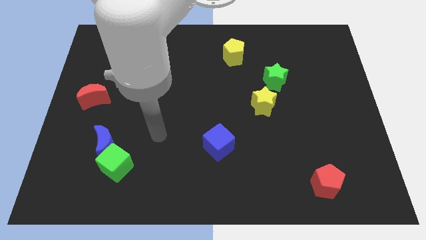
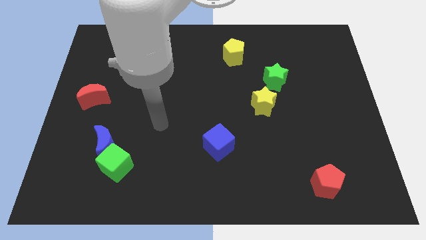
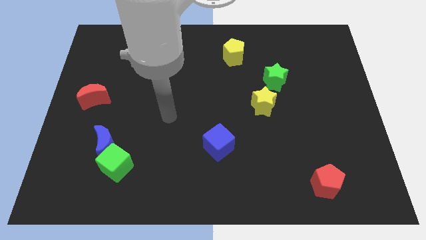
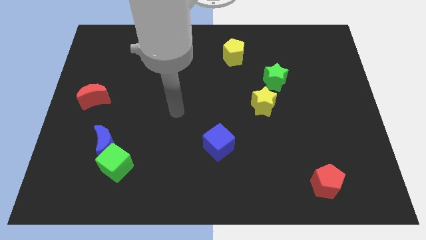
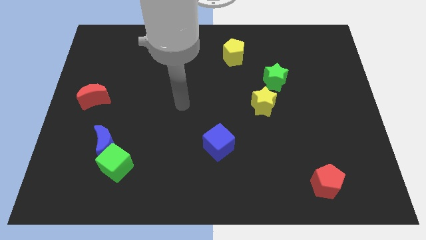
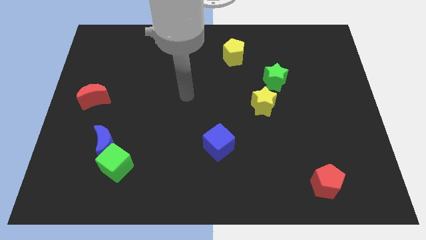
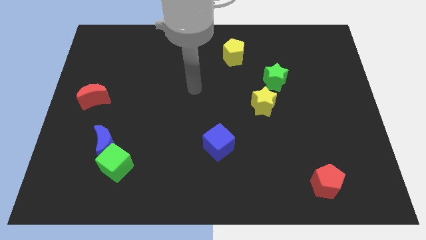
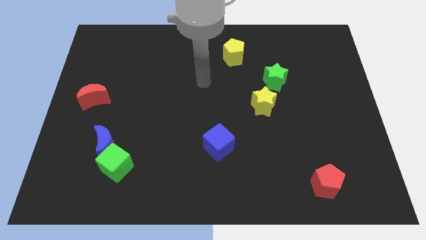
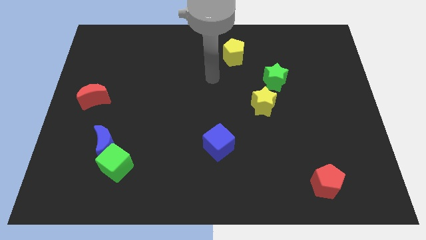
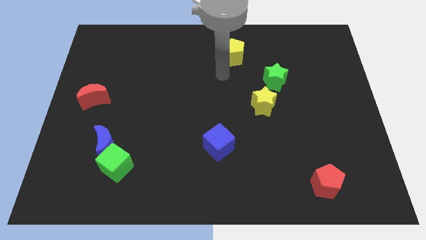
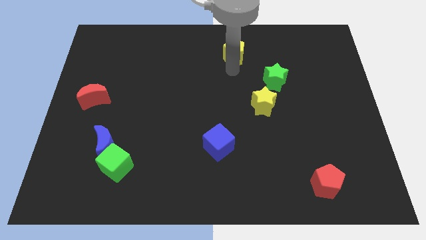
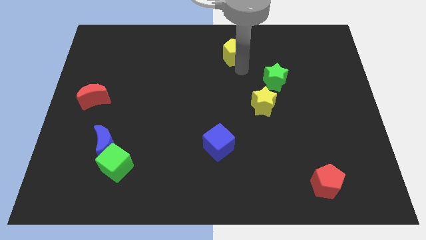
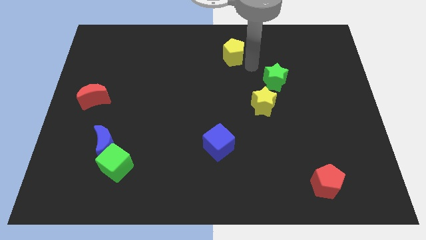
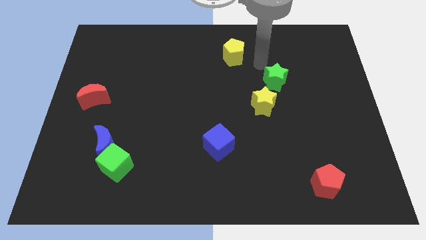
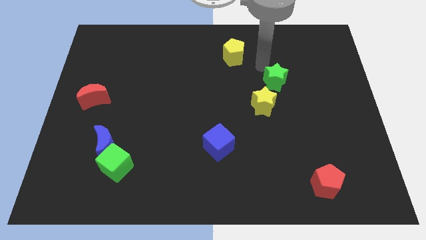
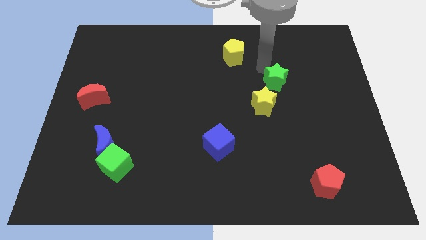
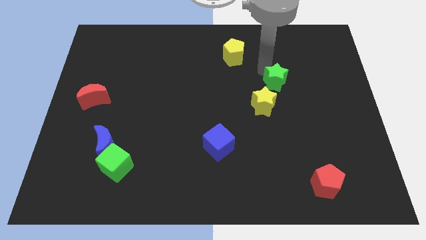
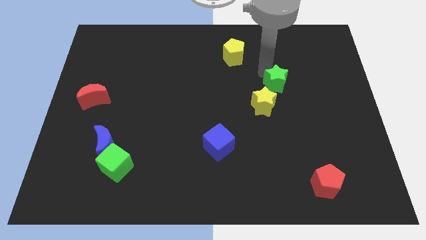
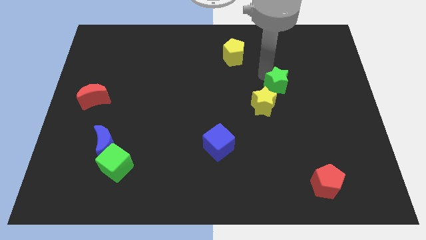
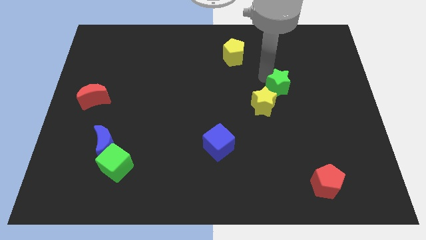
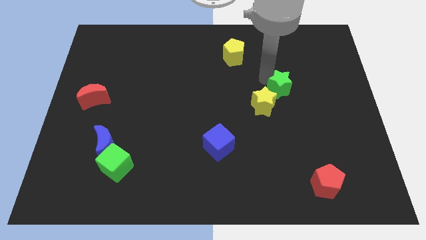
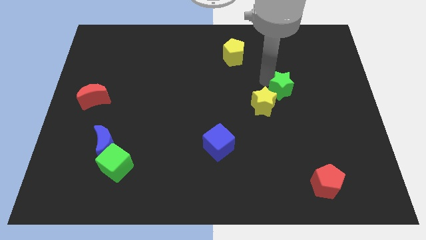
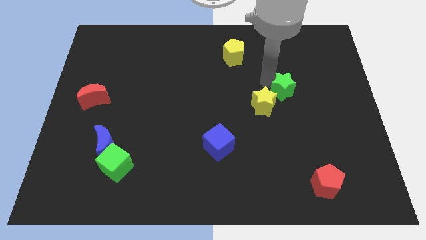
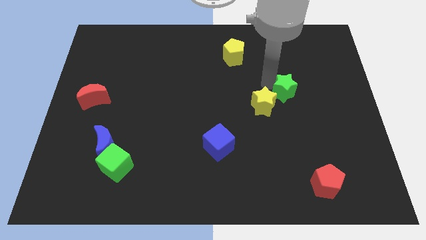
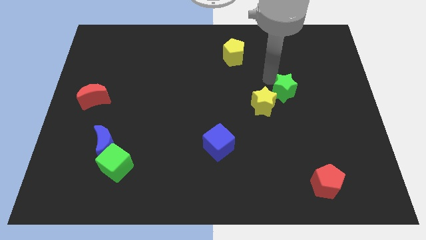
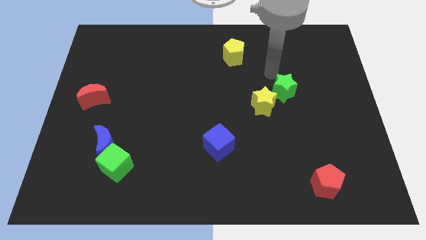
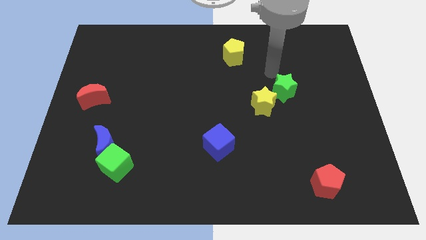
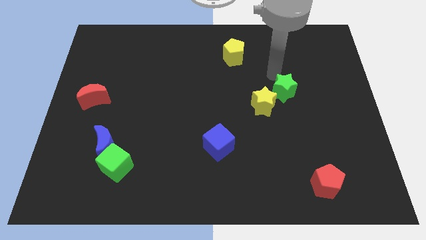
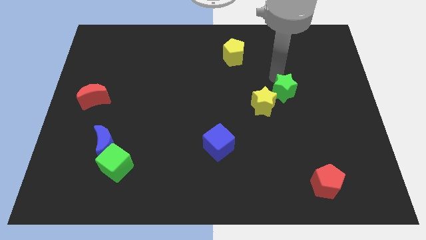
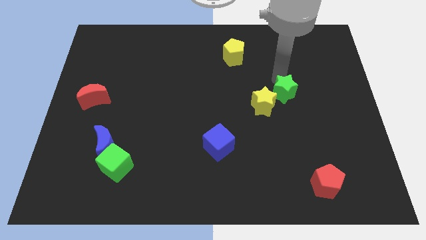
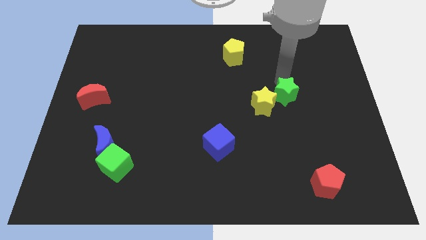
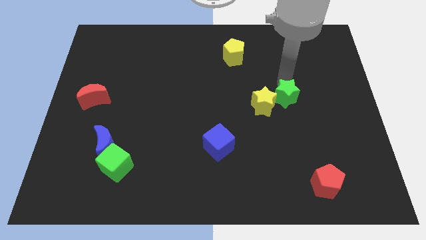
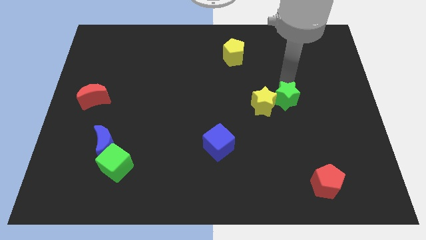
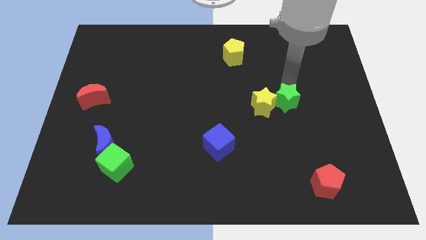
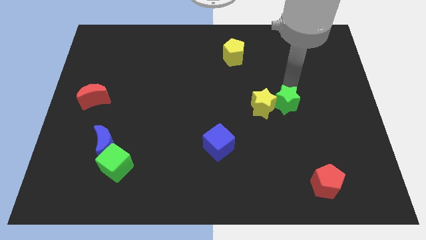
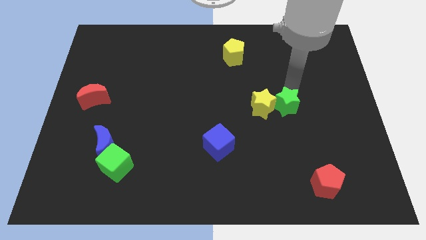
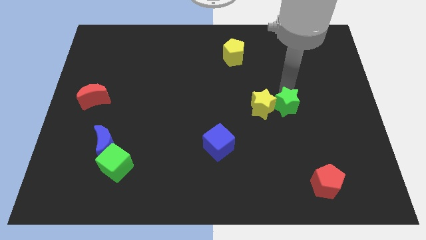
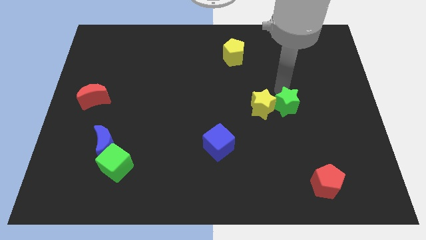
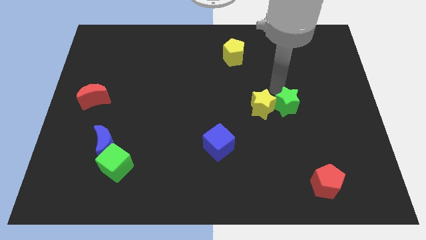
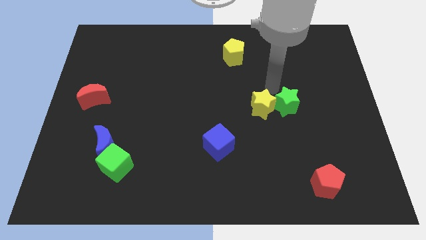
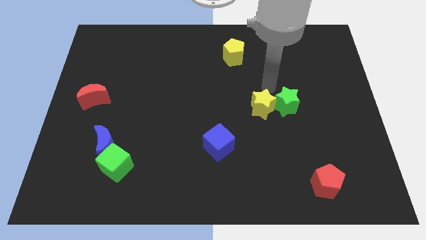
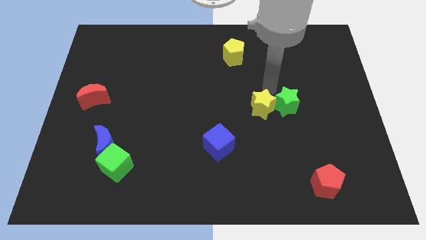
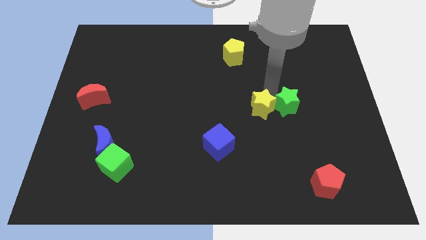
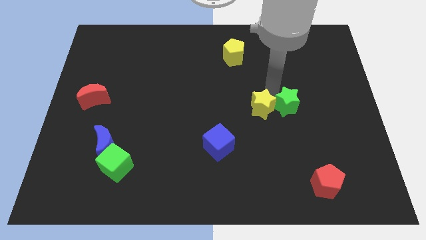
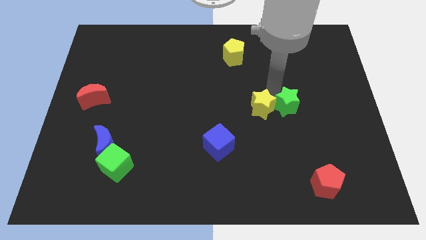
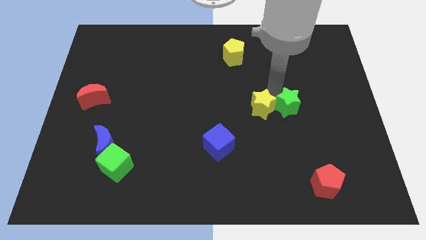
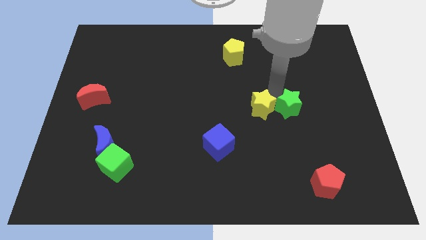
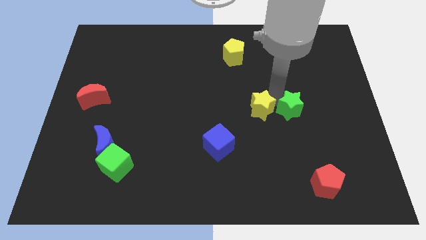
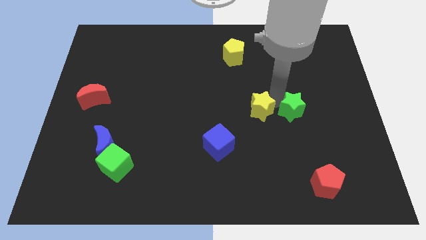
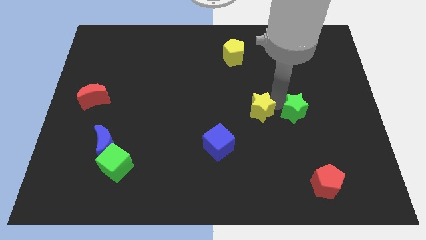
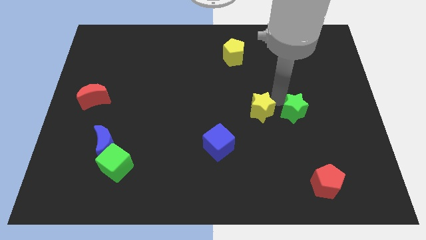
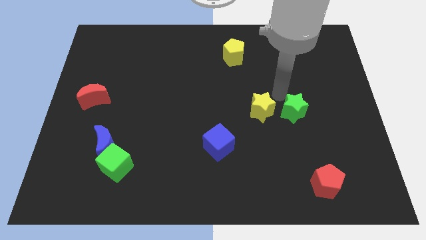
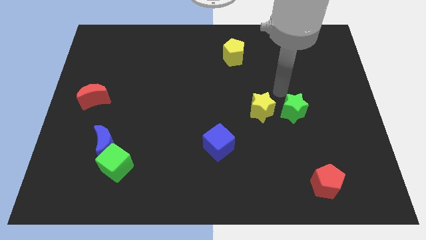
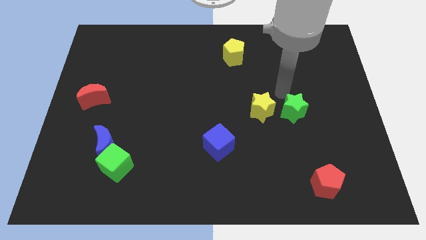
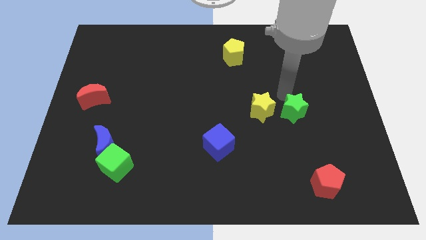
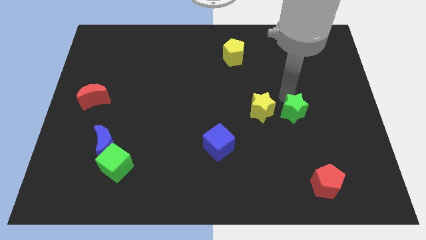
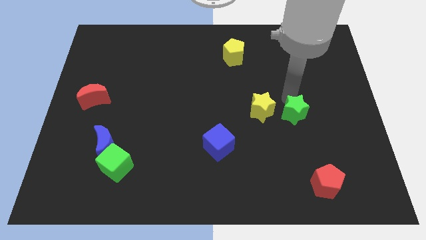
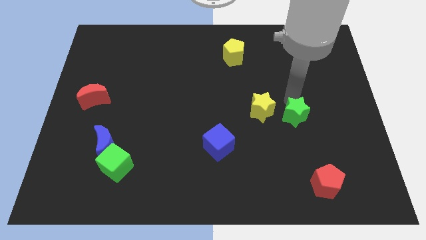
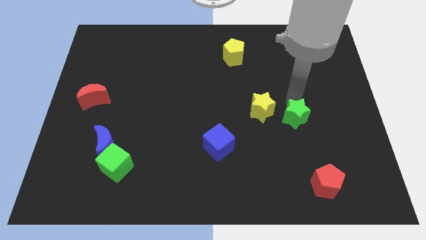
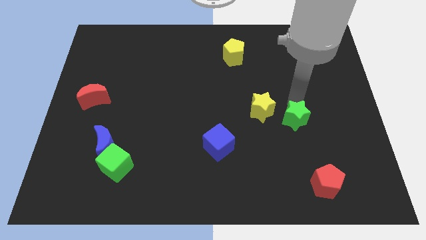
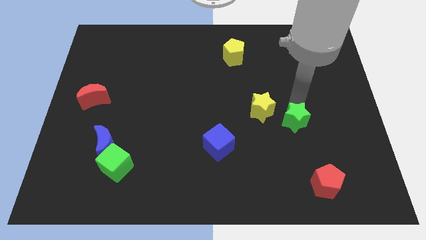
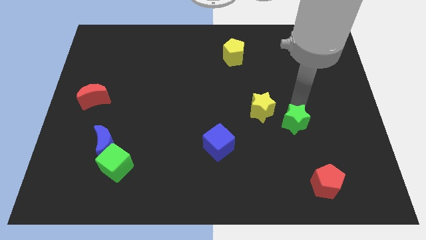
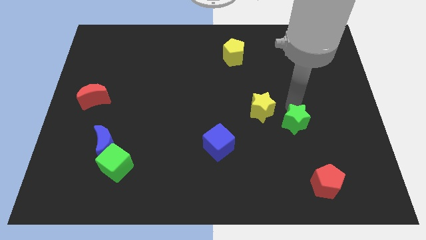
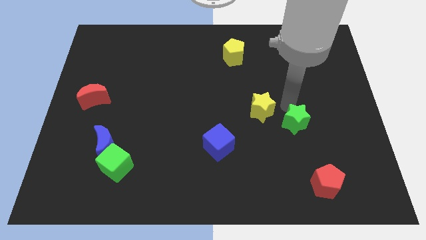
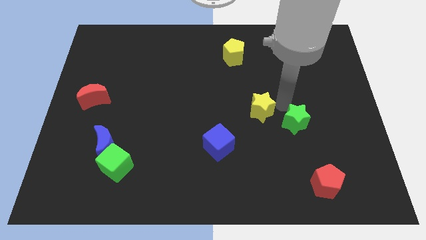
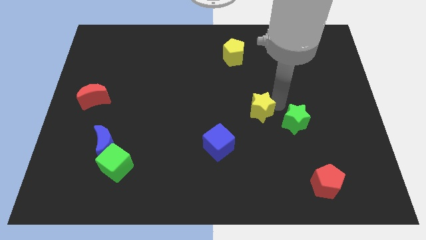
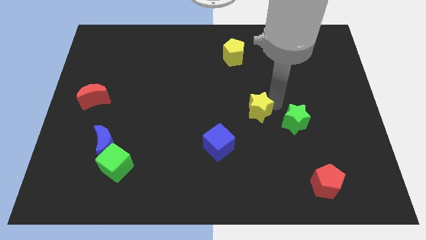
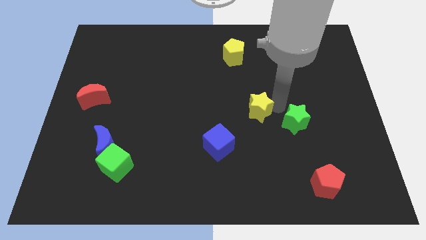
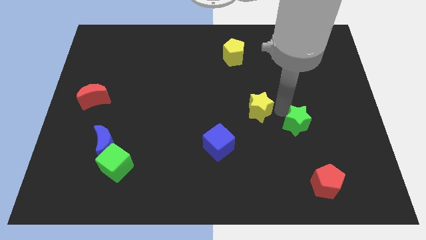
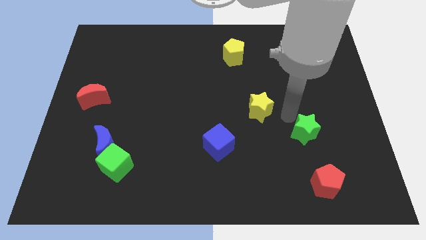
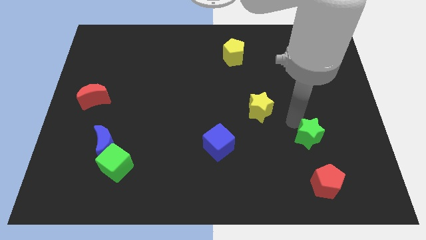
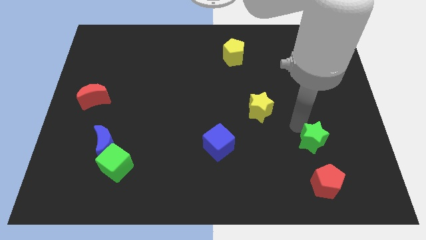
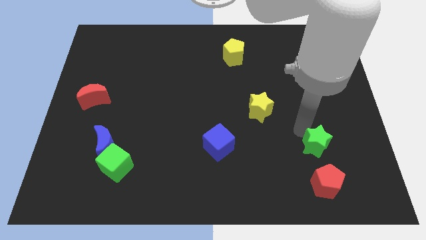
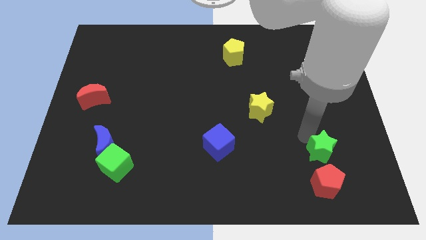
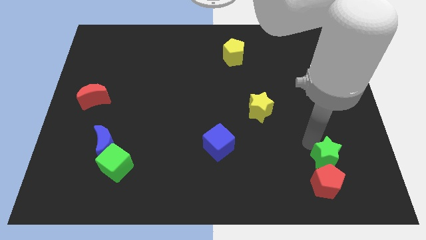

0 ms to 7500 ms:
move the green star diagonally up and to the right of the red pentagon

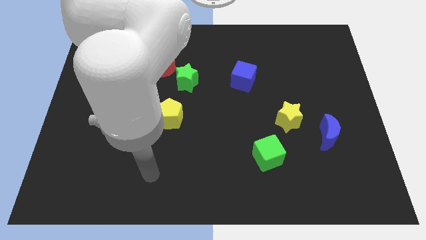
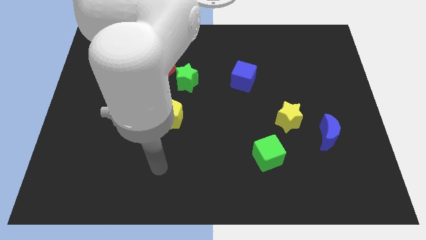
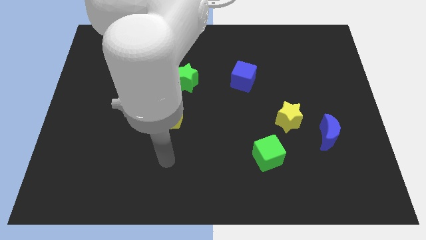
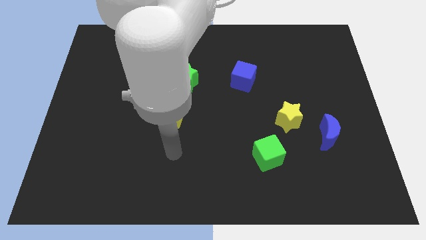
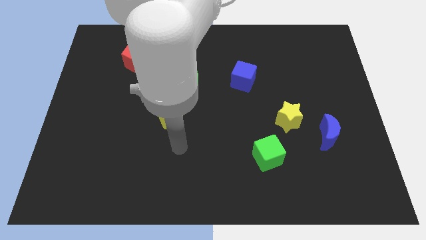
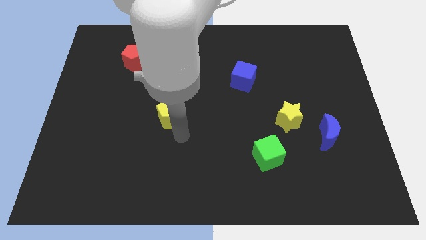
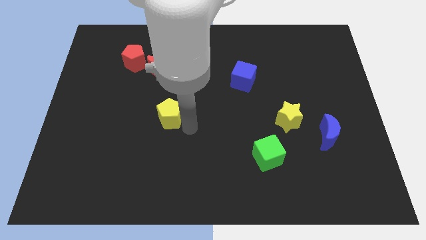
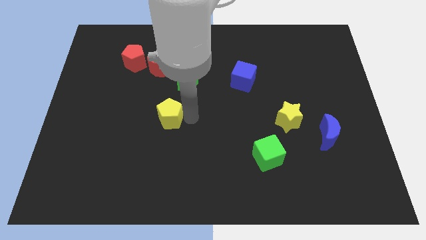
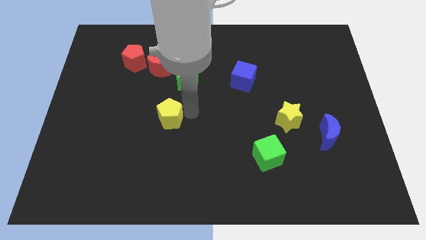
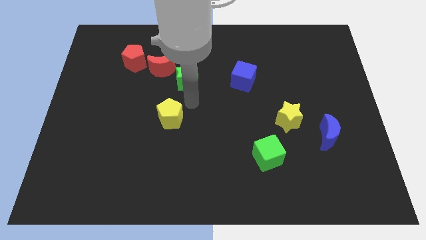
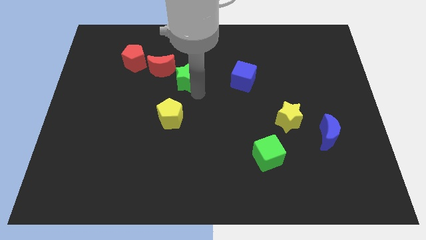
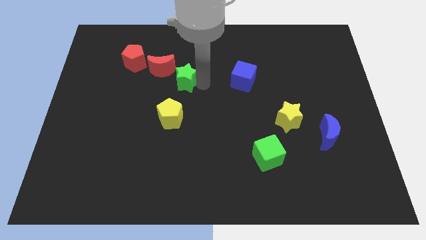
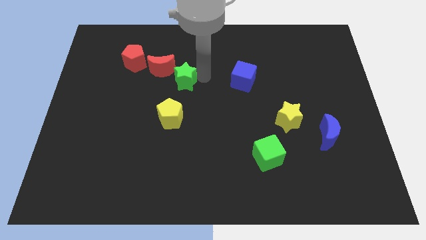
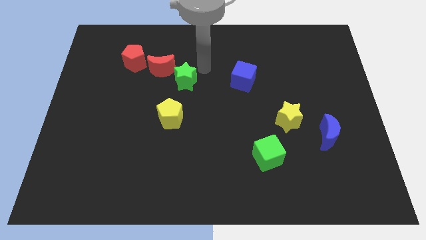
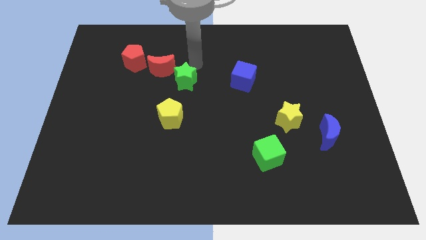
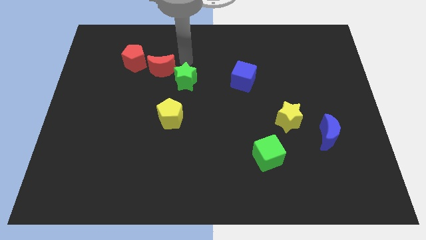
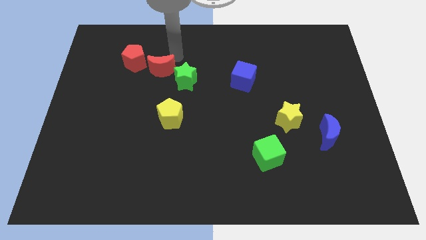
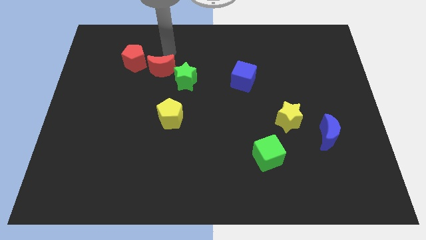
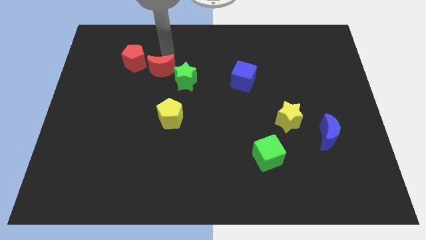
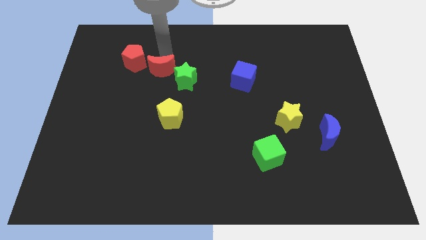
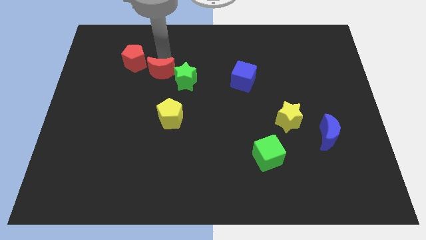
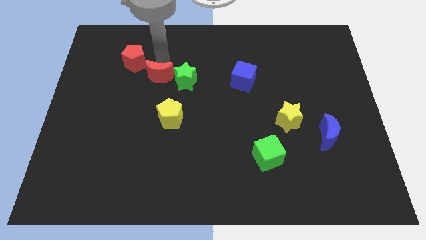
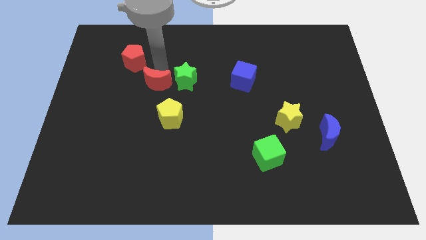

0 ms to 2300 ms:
move the red moon to the top left side of the yellow pentagon
